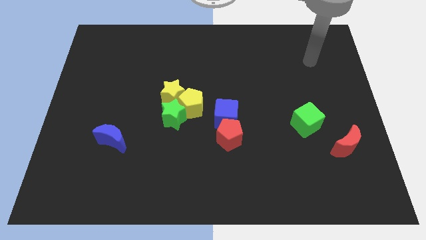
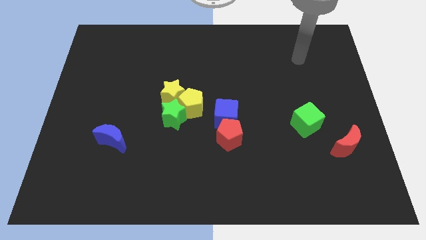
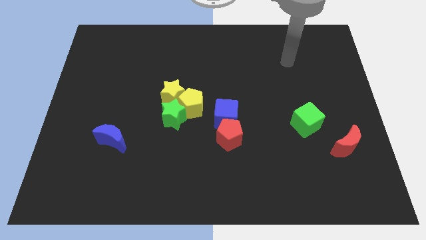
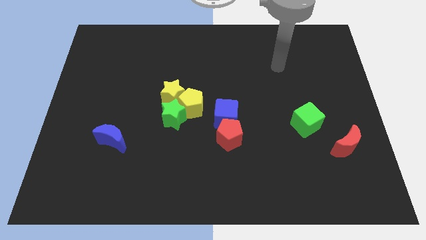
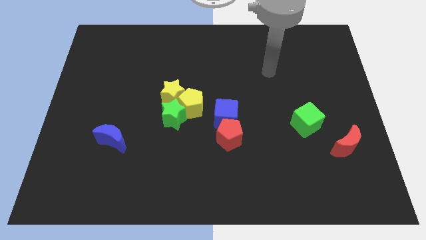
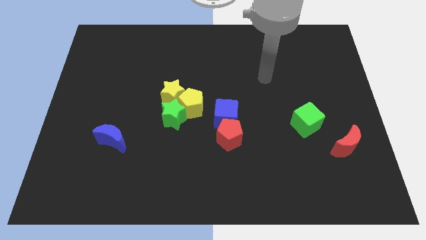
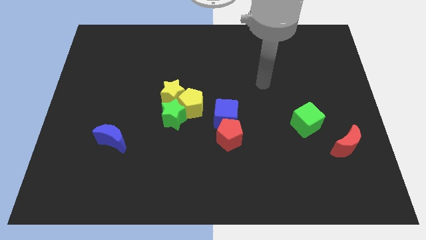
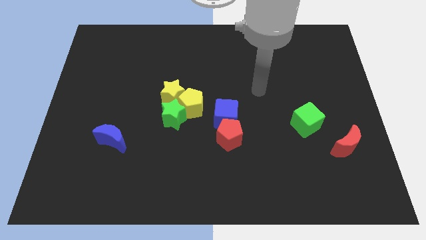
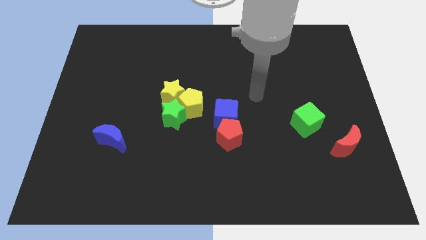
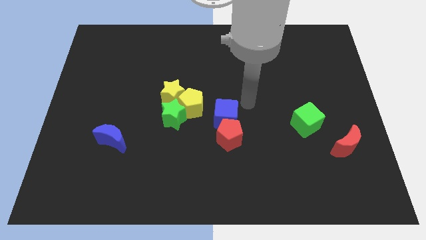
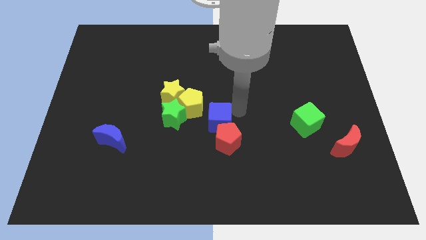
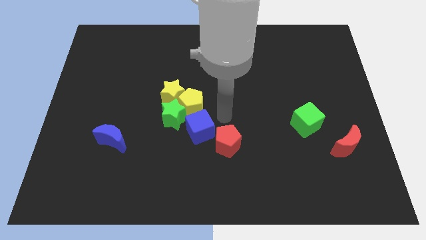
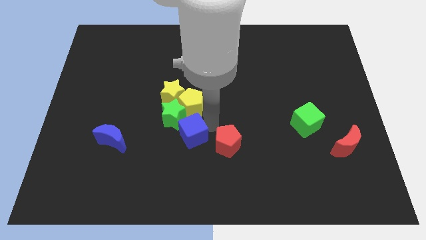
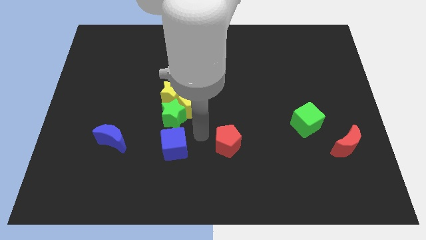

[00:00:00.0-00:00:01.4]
separate the red pentagon from the blue cube

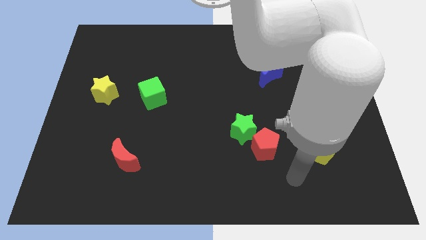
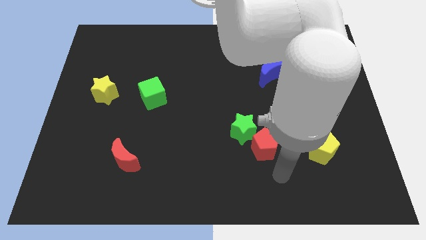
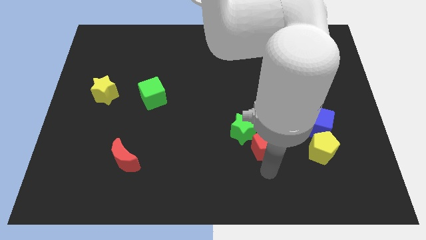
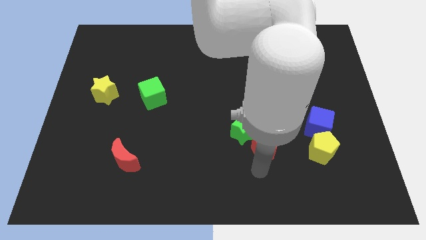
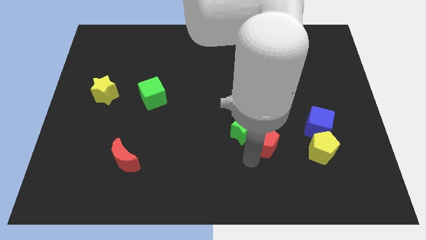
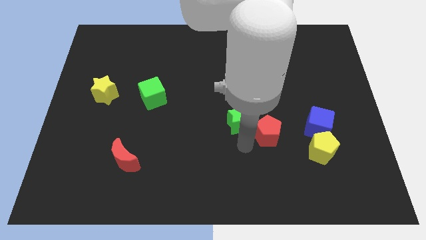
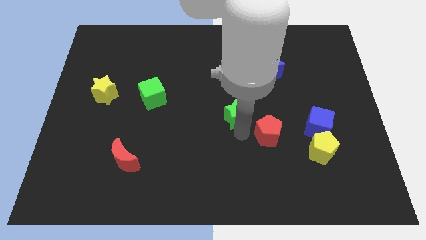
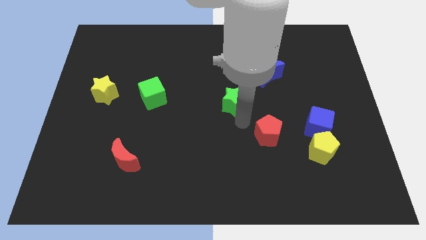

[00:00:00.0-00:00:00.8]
pull the red pentagon apart from the green star

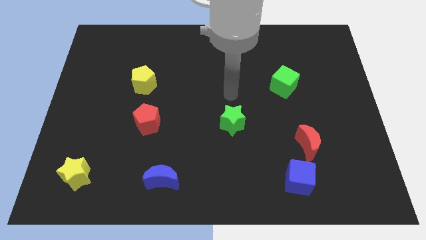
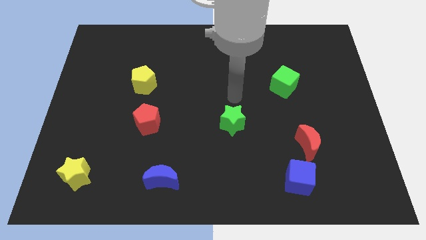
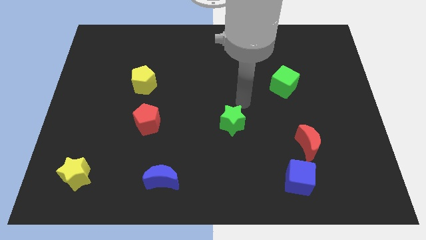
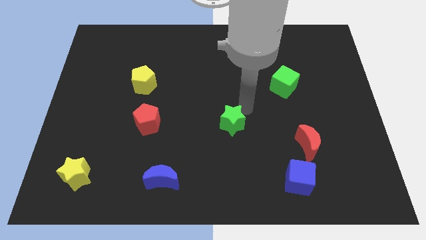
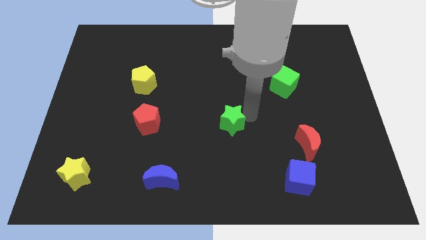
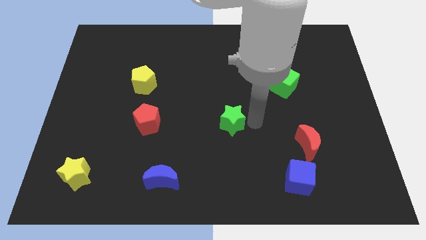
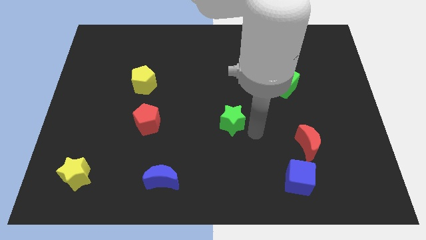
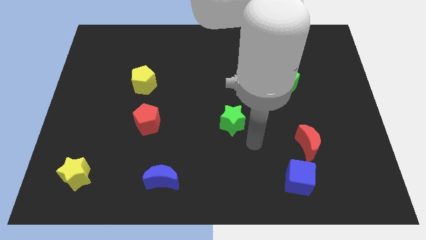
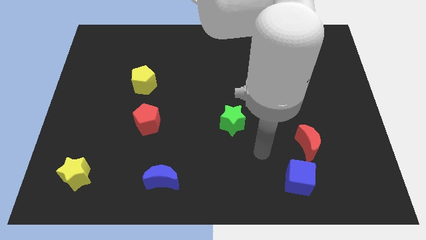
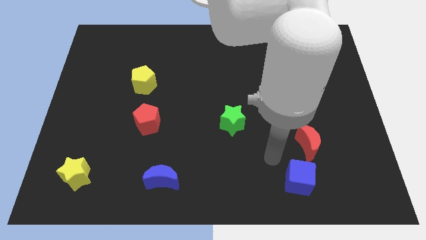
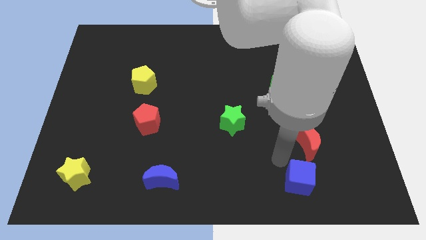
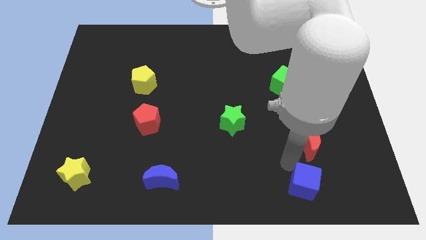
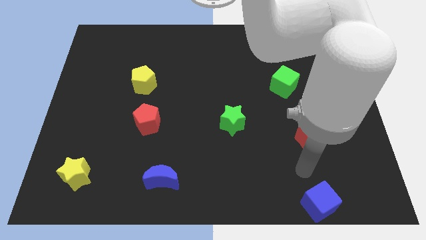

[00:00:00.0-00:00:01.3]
move the red moon away from the blue cube

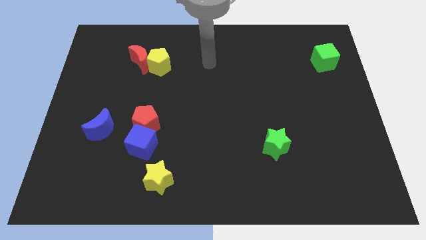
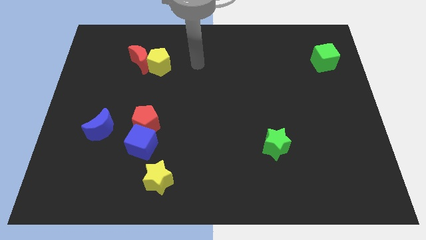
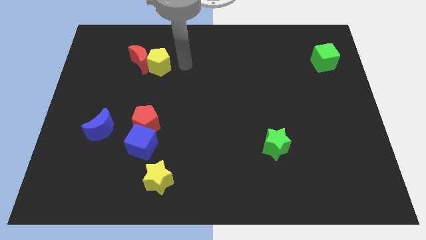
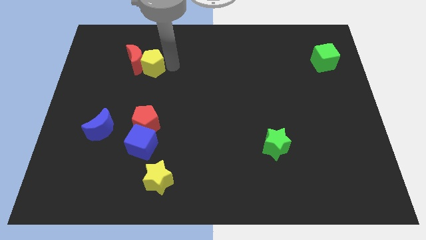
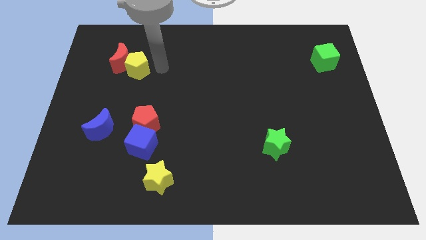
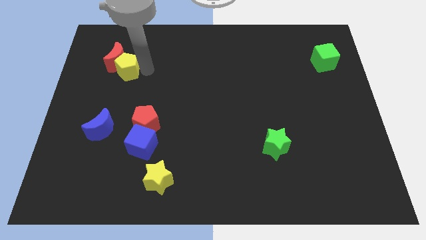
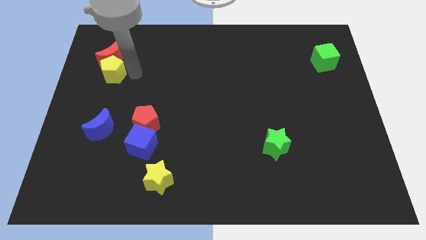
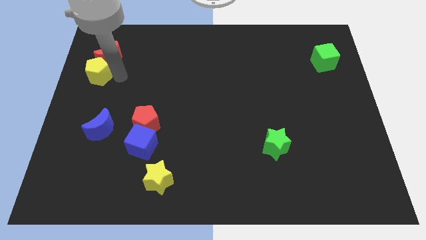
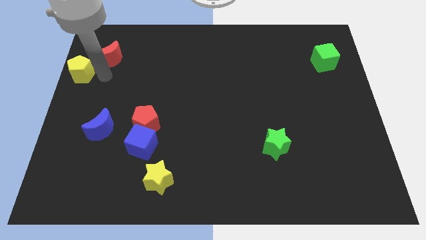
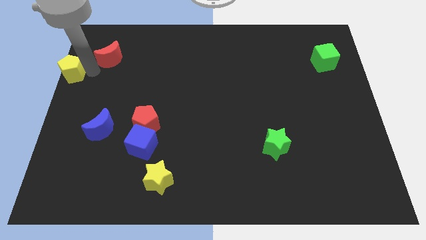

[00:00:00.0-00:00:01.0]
separate the red moon from the yellow pentagon

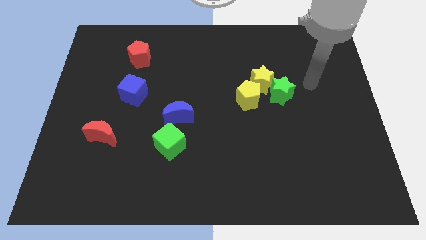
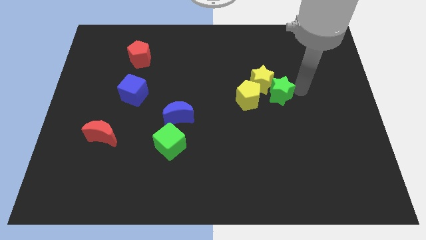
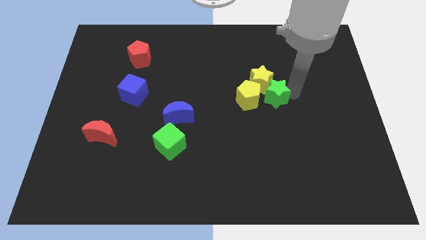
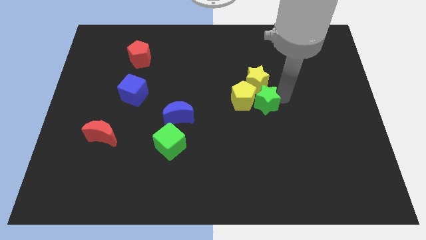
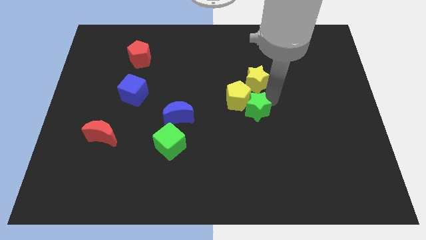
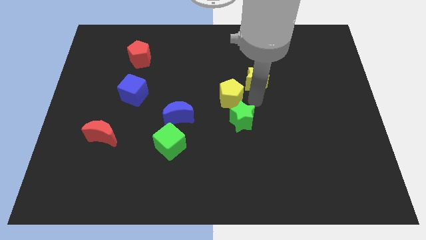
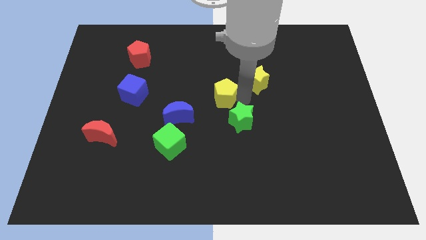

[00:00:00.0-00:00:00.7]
pull the yellow star apart from the yellow pentagon and green star

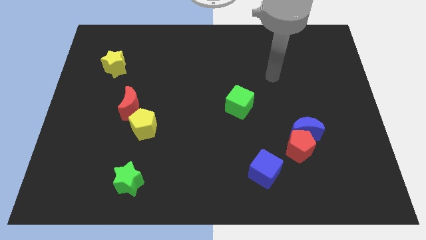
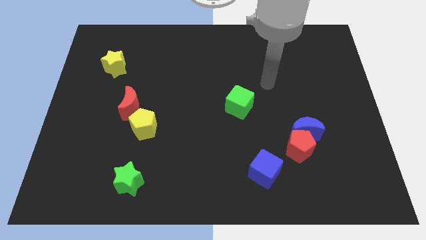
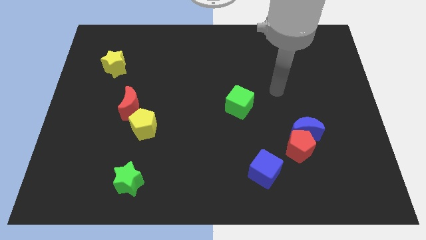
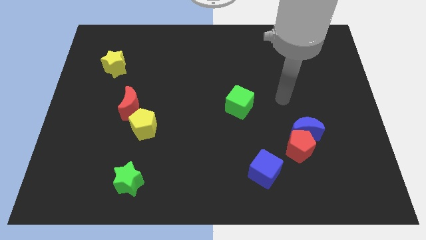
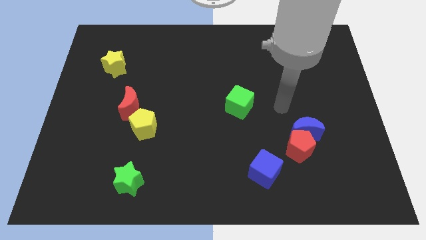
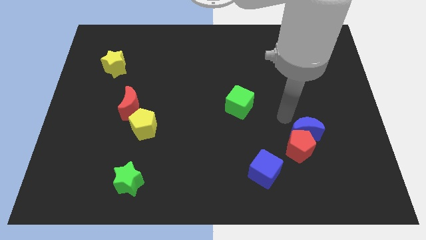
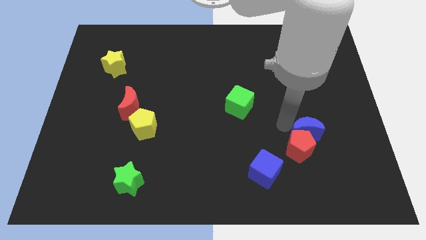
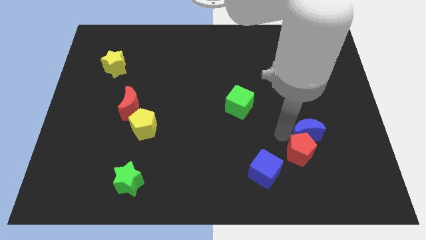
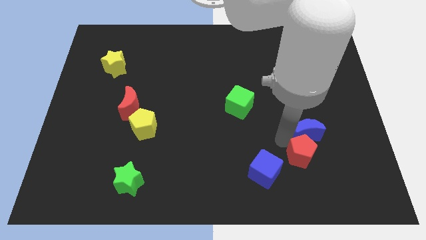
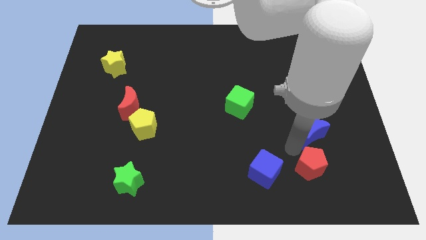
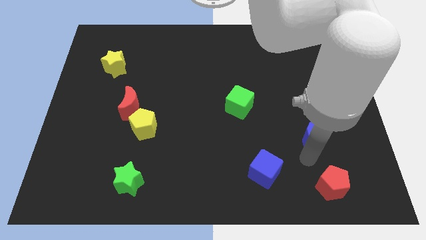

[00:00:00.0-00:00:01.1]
separate the blue moon from the red pentagon

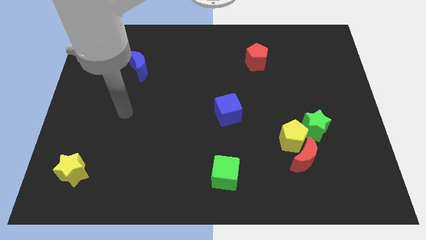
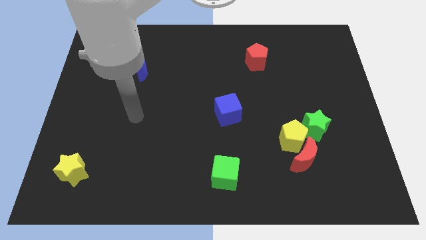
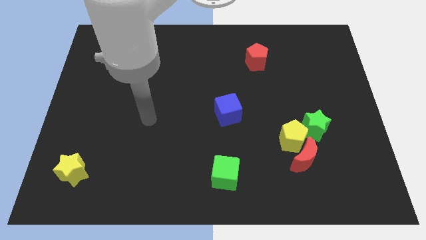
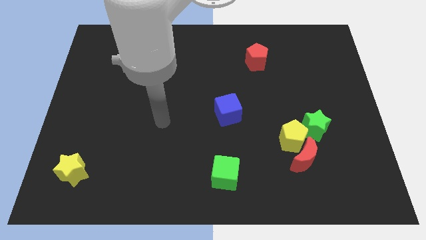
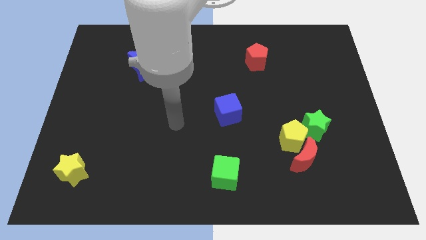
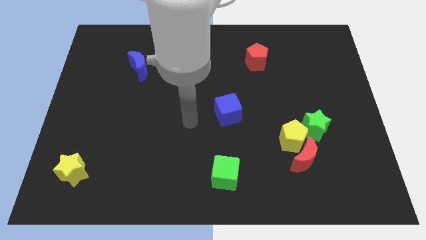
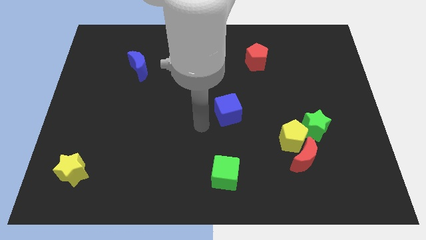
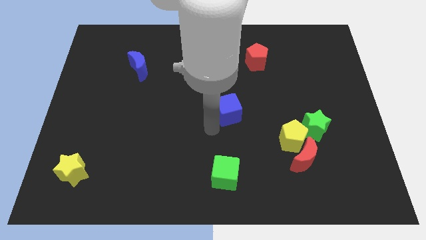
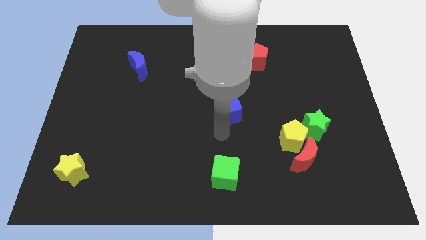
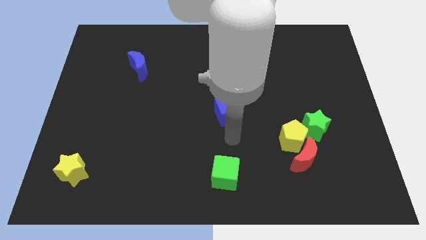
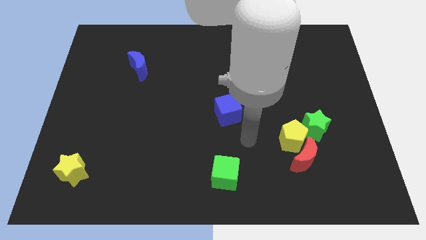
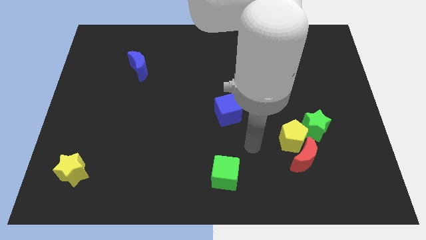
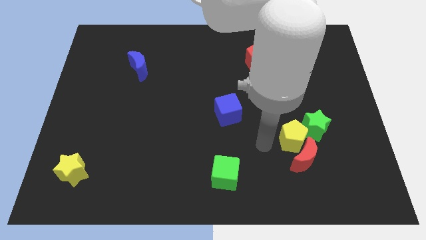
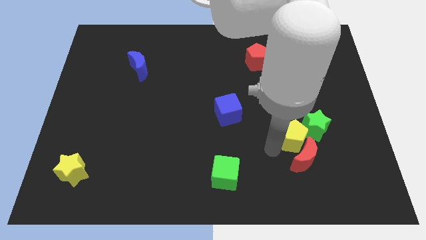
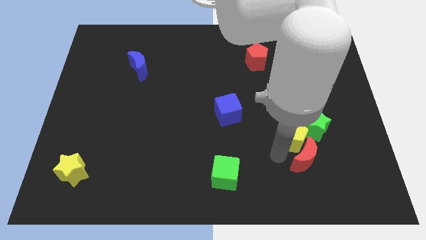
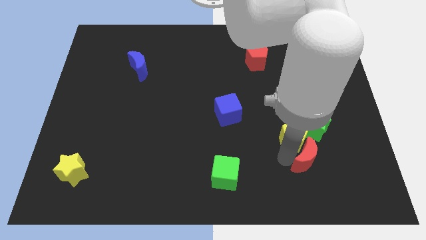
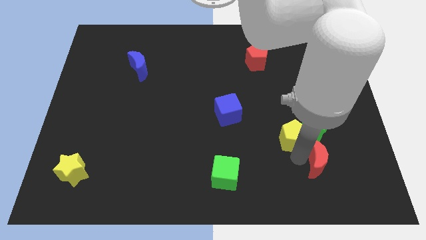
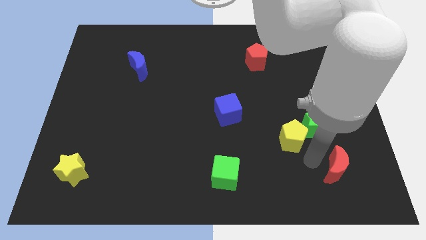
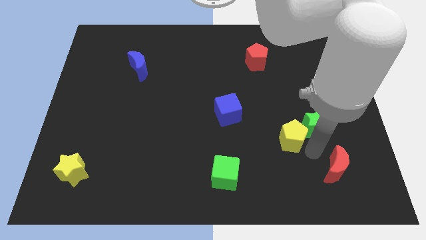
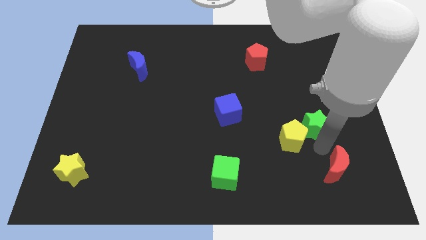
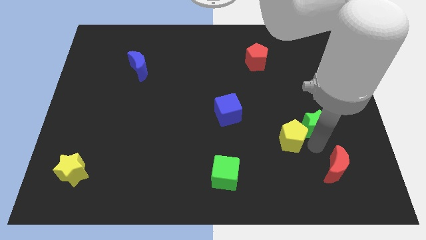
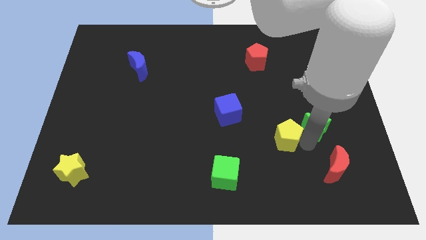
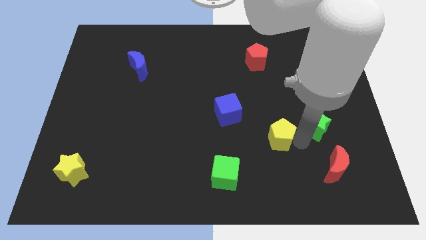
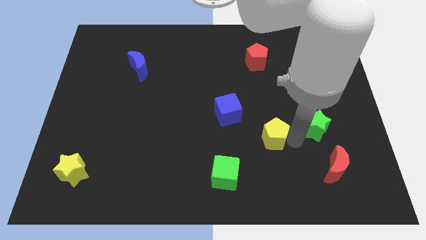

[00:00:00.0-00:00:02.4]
move the yellow pentagon away from the red moon and green star

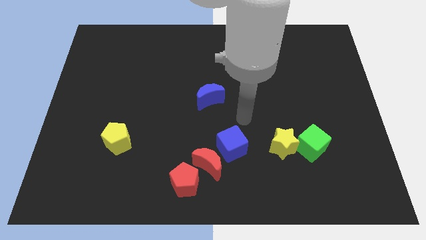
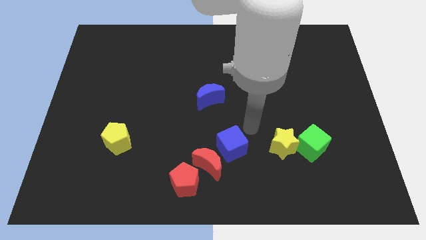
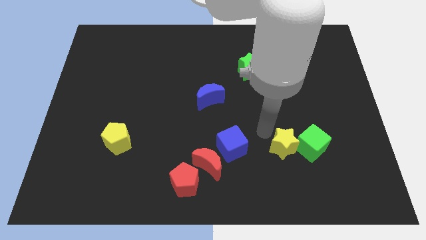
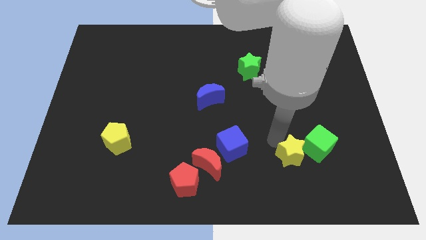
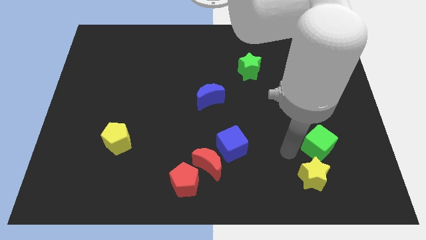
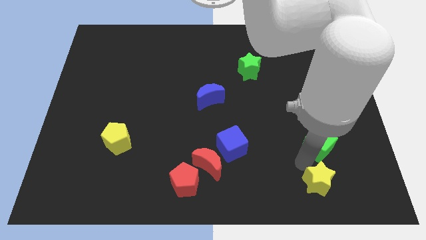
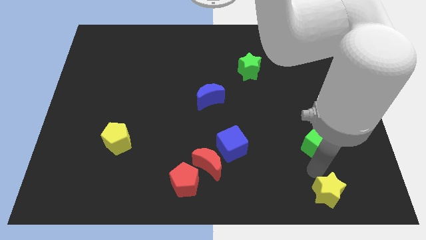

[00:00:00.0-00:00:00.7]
pull the green cube apart from the yellow star
